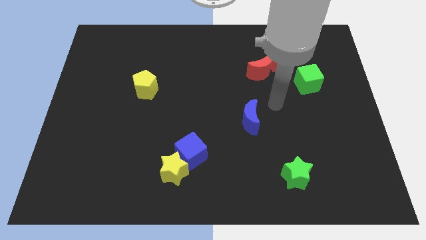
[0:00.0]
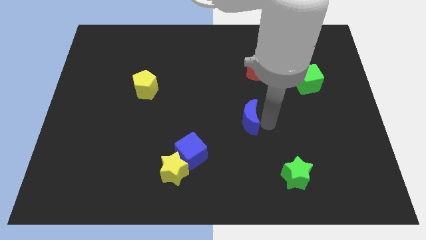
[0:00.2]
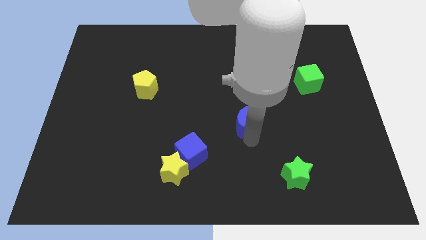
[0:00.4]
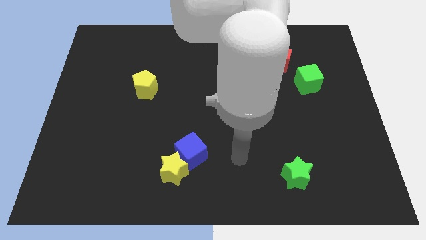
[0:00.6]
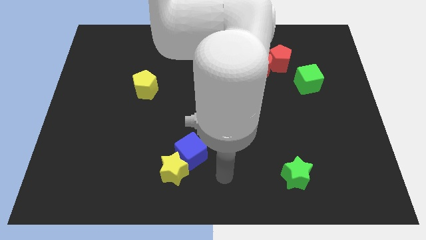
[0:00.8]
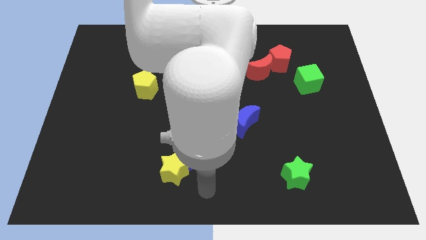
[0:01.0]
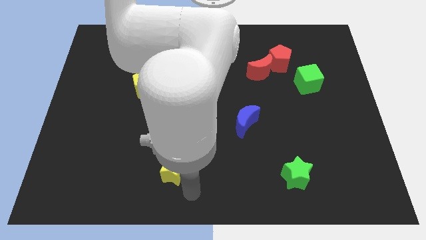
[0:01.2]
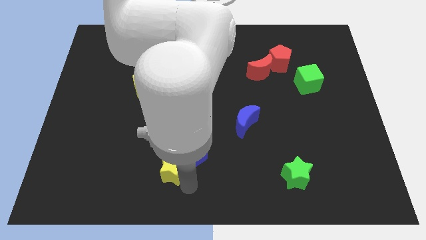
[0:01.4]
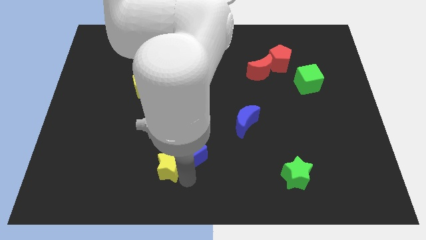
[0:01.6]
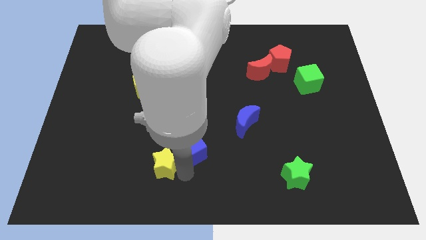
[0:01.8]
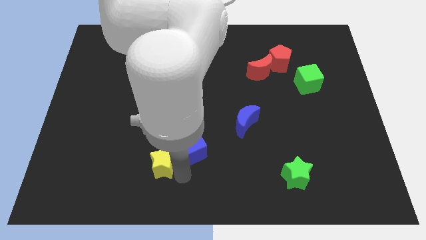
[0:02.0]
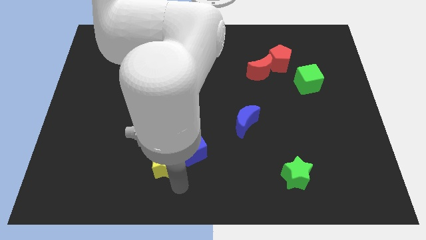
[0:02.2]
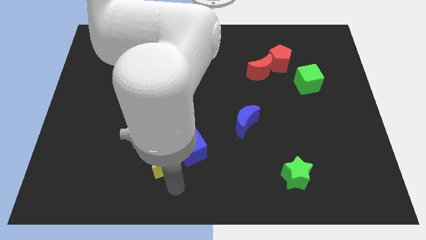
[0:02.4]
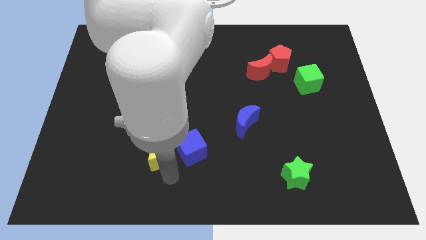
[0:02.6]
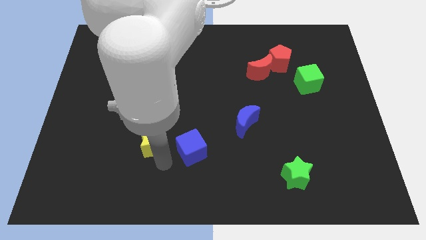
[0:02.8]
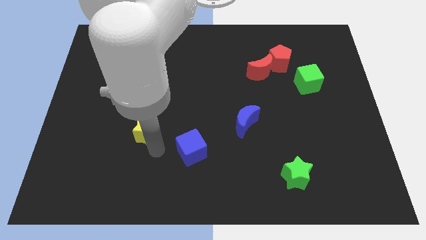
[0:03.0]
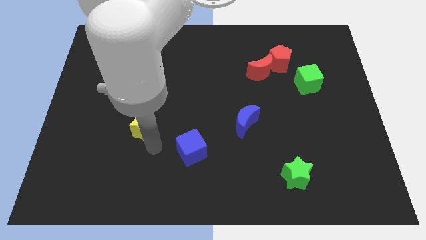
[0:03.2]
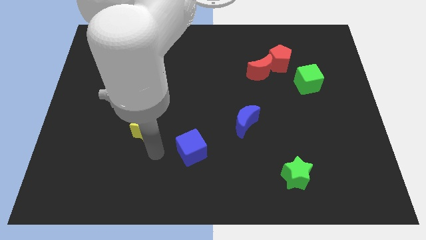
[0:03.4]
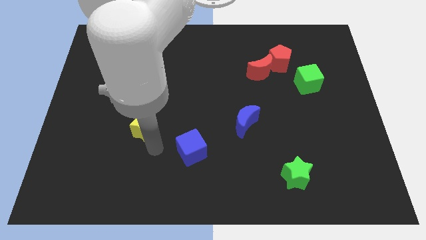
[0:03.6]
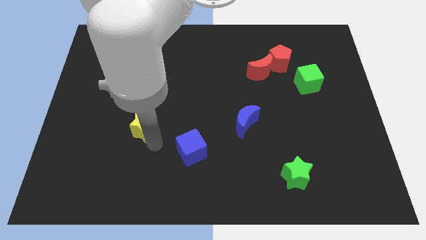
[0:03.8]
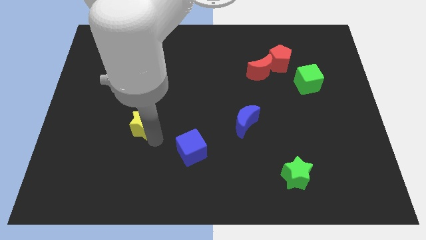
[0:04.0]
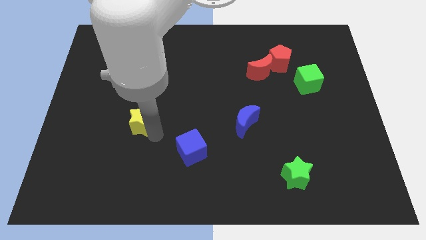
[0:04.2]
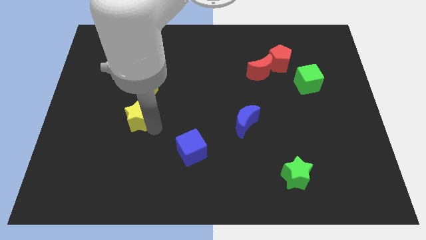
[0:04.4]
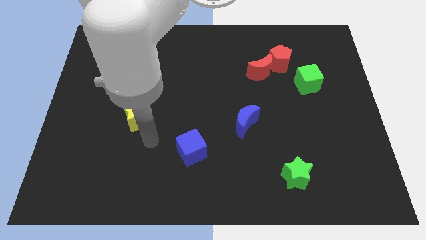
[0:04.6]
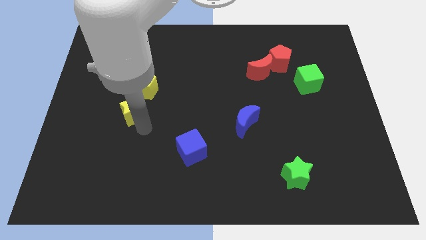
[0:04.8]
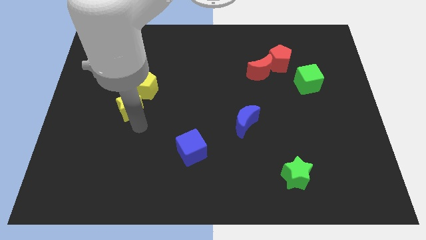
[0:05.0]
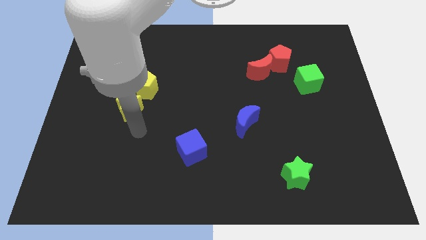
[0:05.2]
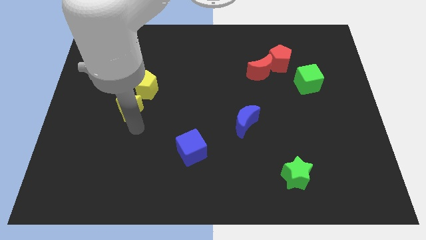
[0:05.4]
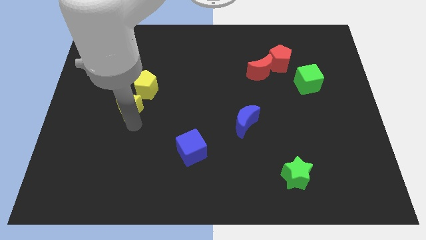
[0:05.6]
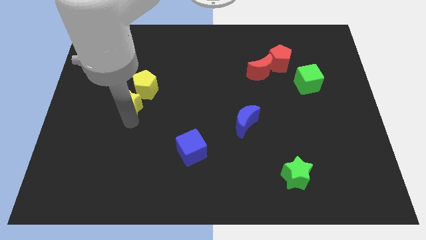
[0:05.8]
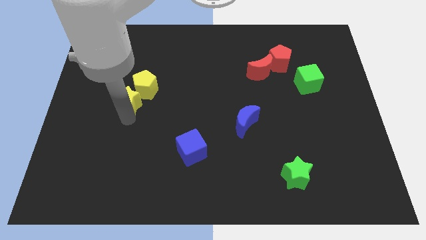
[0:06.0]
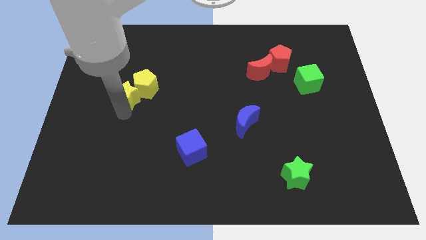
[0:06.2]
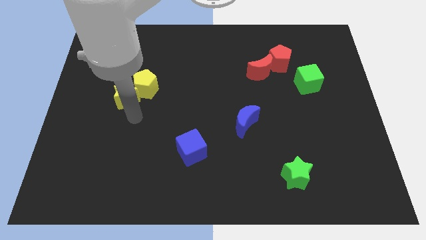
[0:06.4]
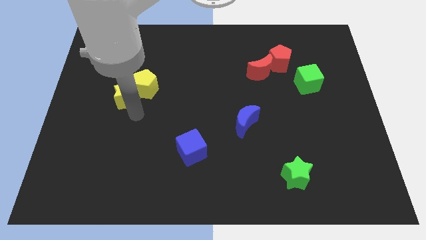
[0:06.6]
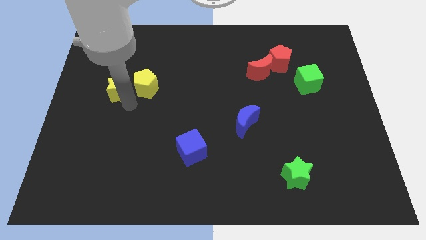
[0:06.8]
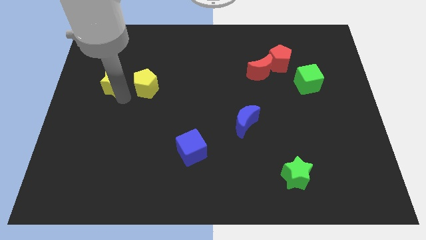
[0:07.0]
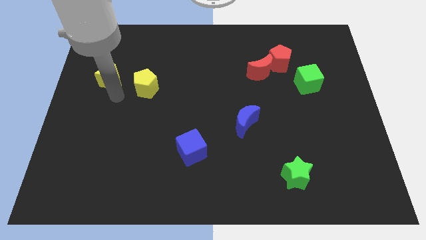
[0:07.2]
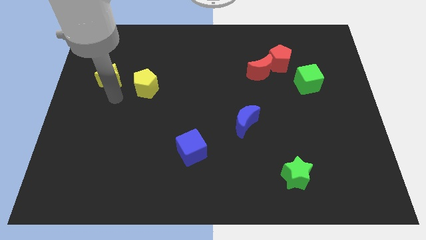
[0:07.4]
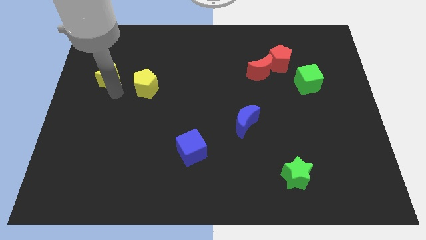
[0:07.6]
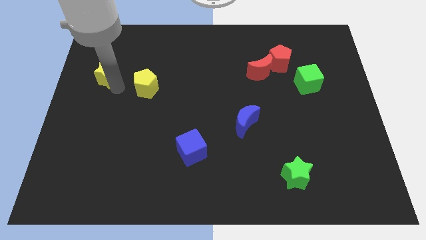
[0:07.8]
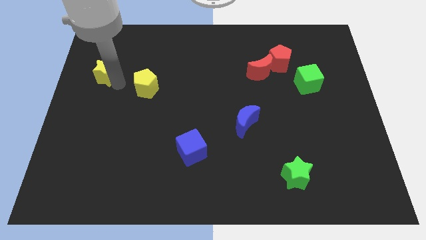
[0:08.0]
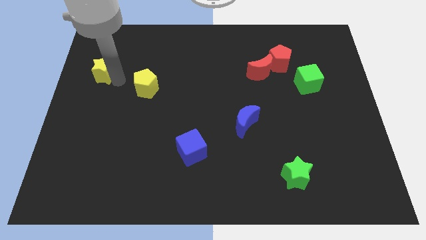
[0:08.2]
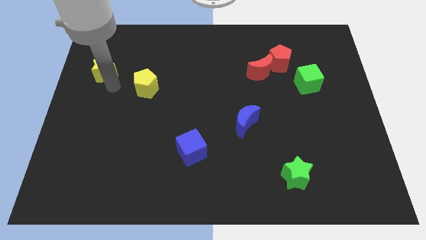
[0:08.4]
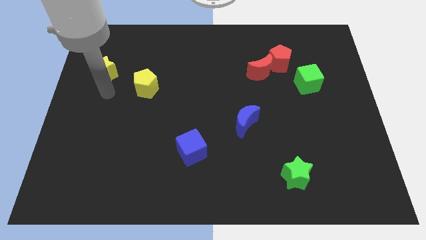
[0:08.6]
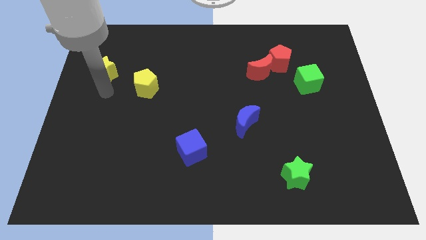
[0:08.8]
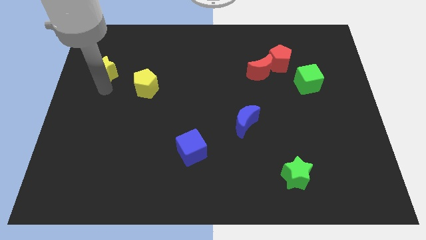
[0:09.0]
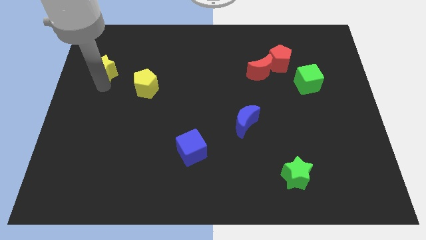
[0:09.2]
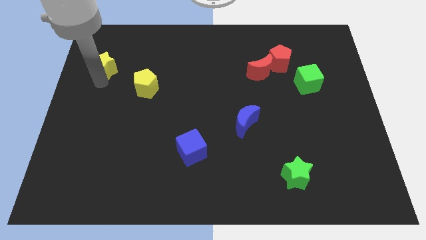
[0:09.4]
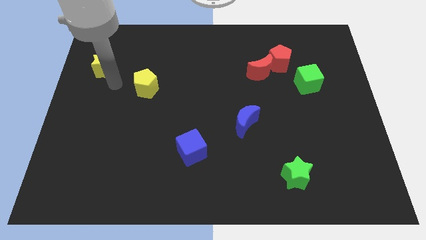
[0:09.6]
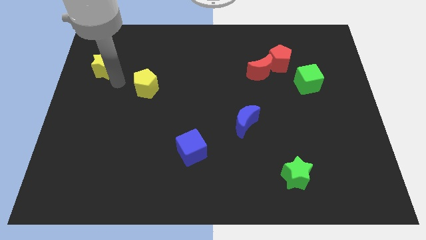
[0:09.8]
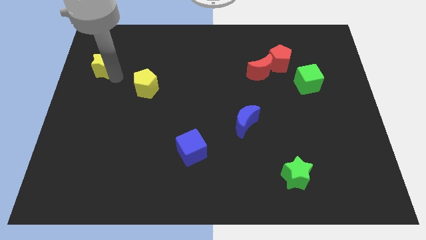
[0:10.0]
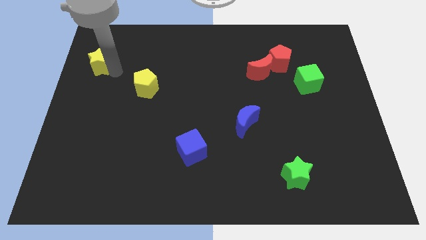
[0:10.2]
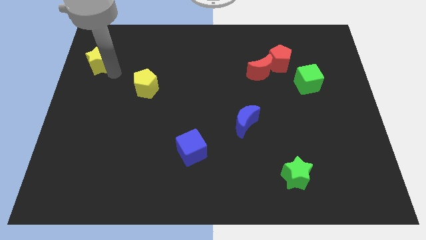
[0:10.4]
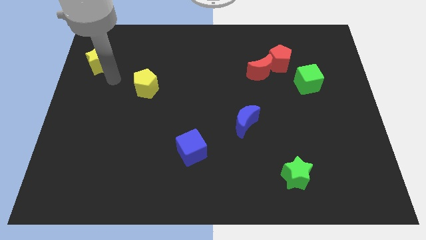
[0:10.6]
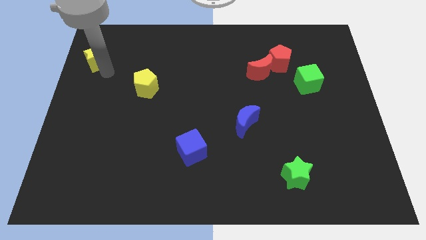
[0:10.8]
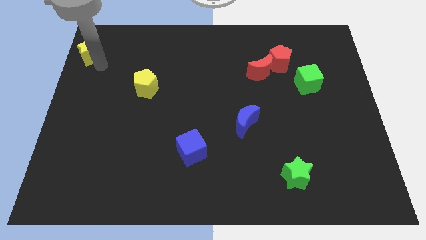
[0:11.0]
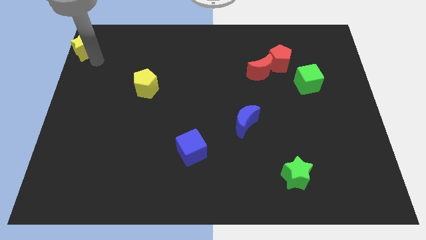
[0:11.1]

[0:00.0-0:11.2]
push the yellow star to the top left corner

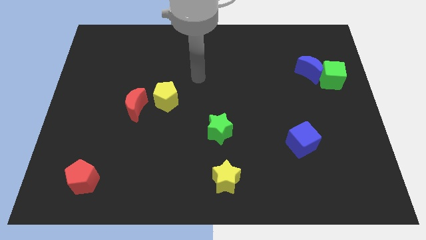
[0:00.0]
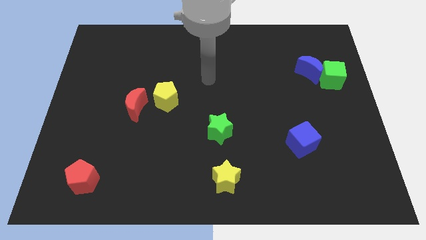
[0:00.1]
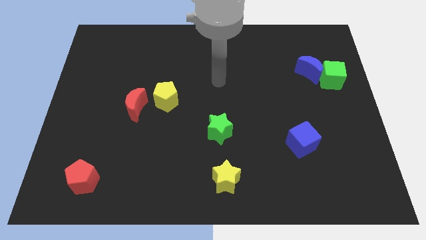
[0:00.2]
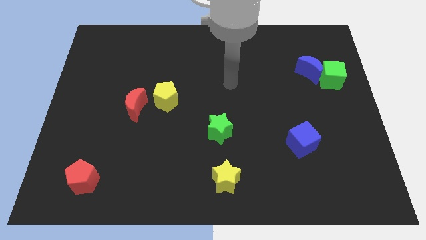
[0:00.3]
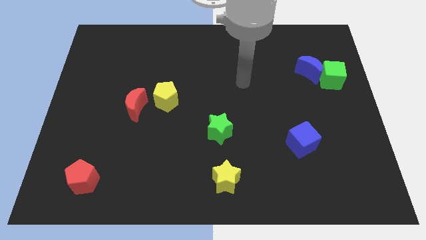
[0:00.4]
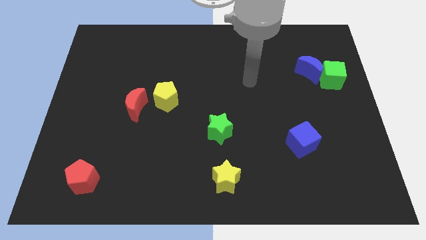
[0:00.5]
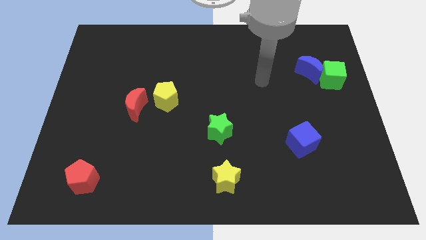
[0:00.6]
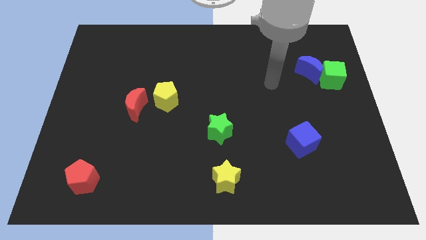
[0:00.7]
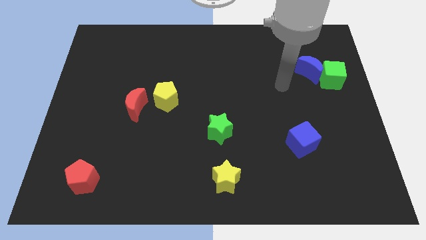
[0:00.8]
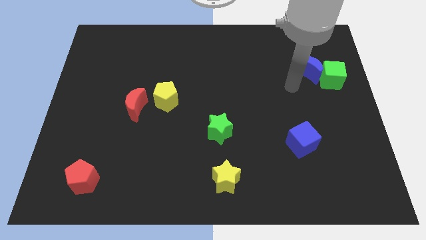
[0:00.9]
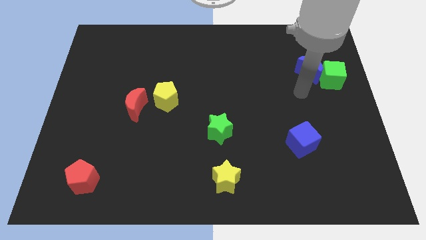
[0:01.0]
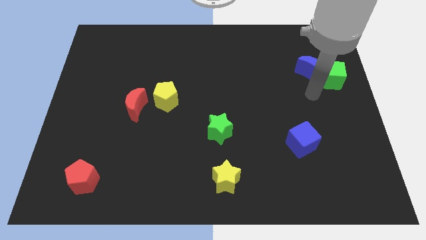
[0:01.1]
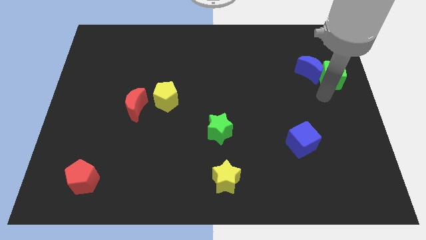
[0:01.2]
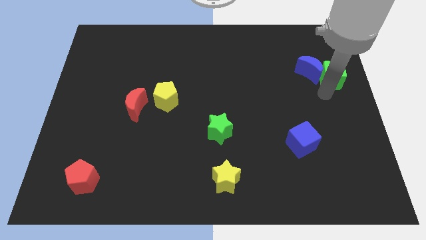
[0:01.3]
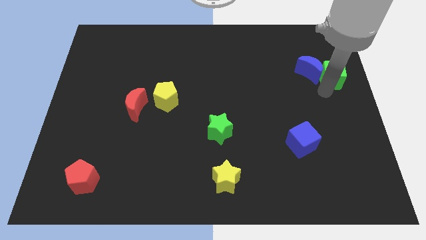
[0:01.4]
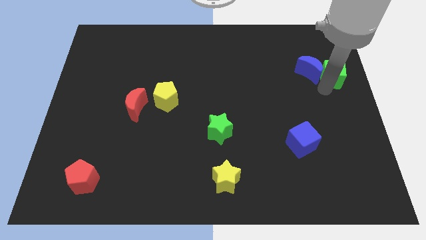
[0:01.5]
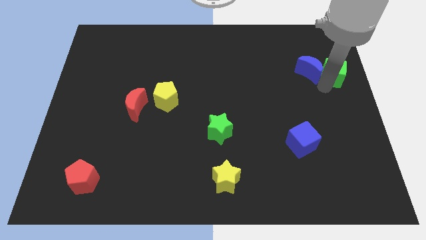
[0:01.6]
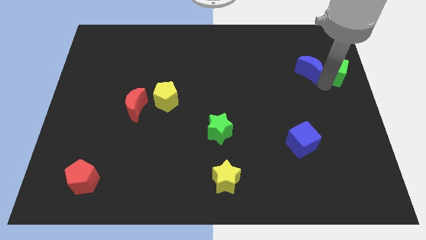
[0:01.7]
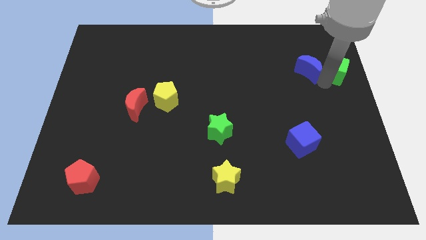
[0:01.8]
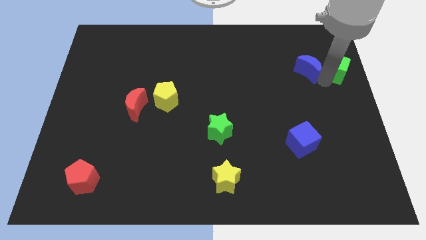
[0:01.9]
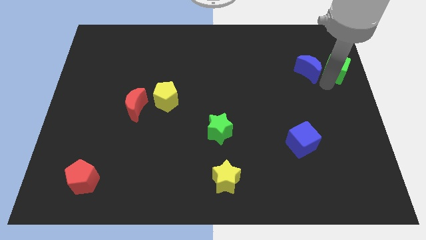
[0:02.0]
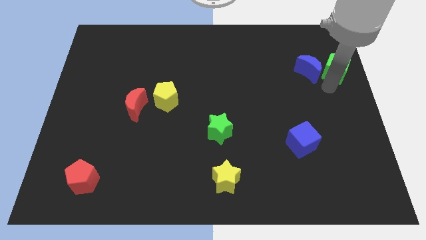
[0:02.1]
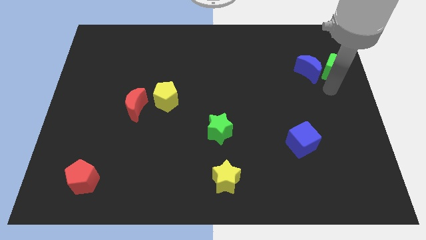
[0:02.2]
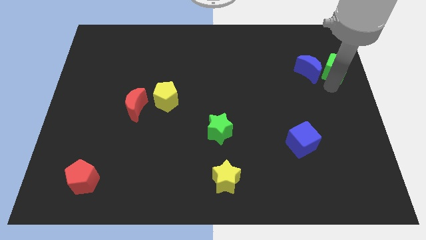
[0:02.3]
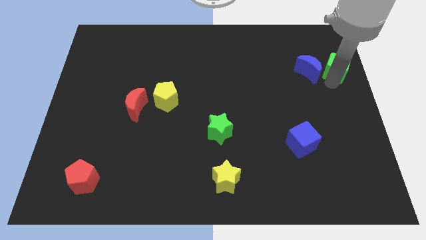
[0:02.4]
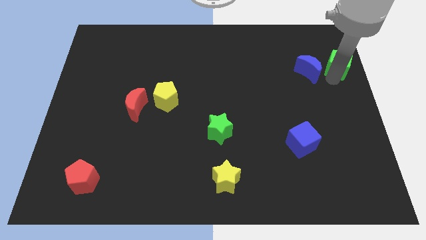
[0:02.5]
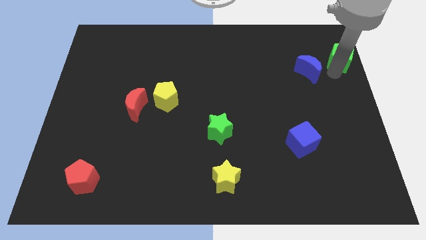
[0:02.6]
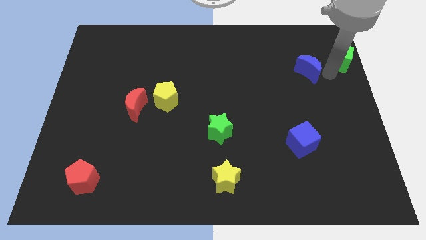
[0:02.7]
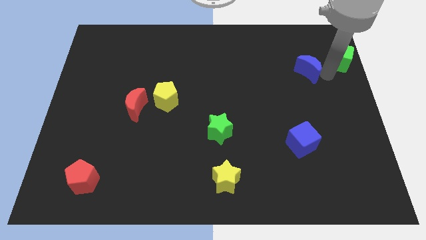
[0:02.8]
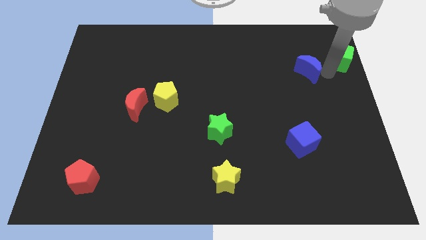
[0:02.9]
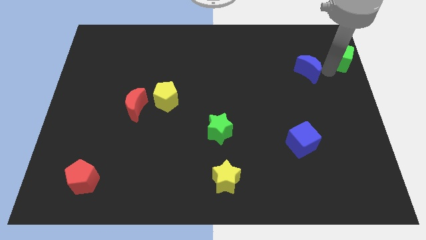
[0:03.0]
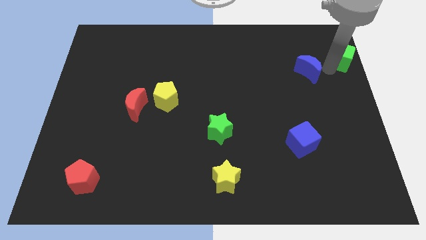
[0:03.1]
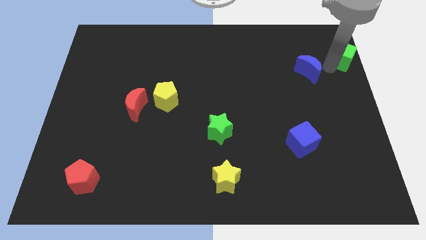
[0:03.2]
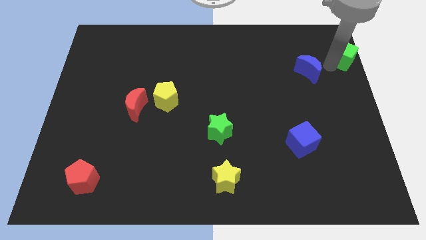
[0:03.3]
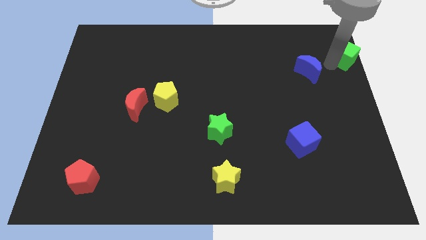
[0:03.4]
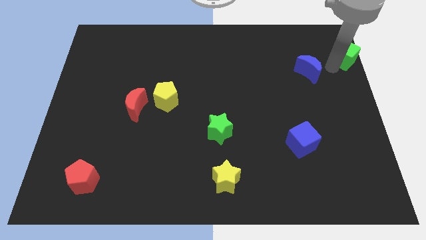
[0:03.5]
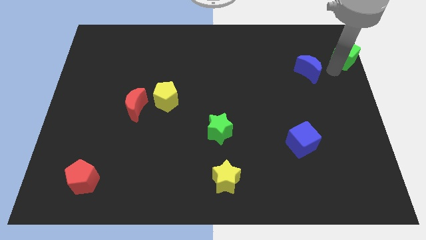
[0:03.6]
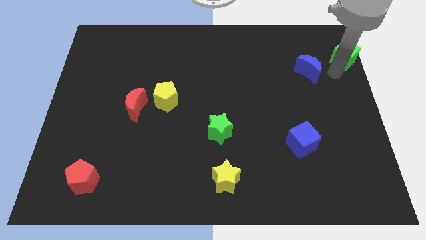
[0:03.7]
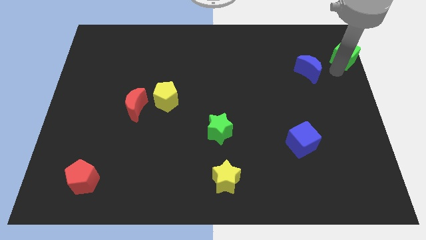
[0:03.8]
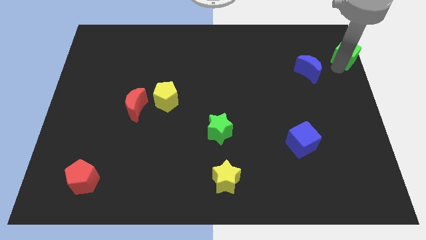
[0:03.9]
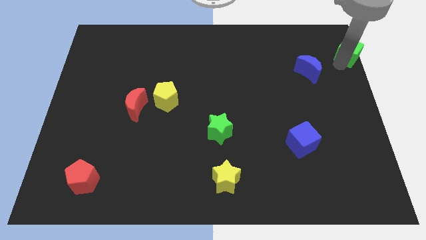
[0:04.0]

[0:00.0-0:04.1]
slide the green cube to the top right of the board
